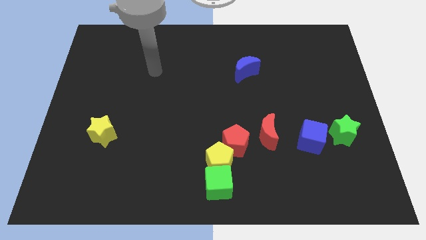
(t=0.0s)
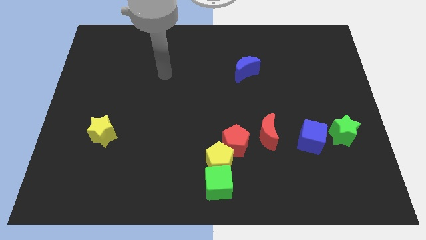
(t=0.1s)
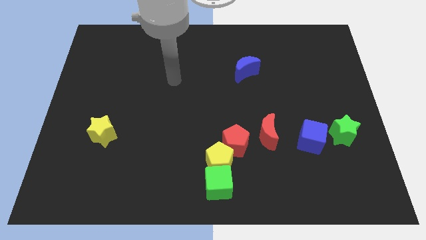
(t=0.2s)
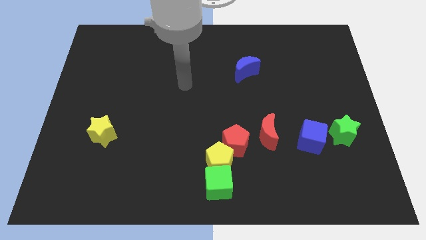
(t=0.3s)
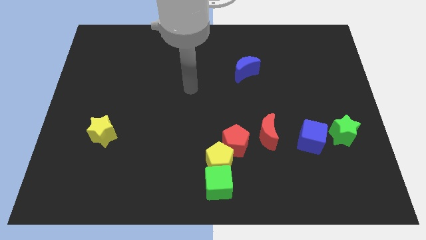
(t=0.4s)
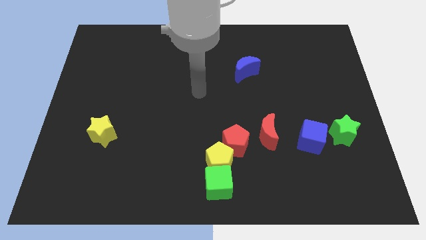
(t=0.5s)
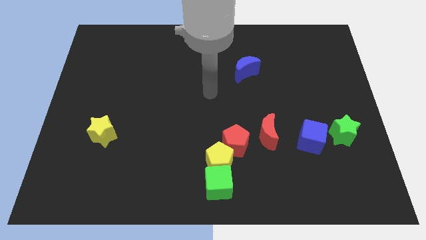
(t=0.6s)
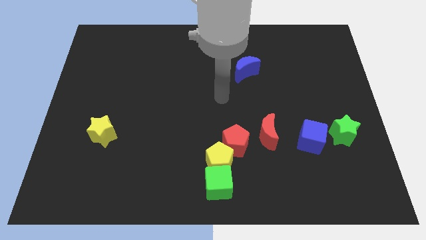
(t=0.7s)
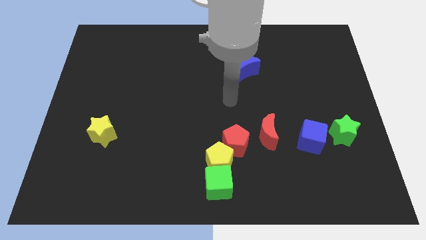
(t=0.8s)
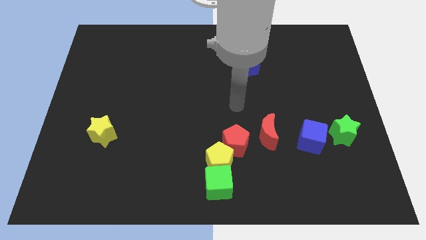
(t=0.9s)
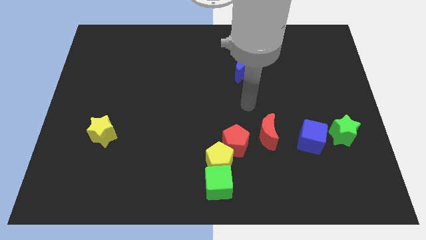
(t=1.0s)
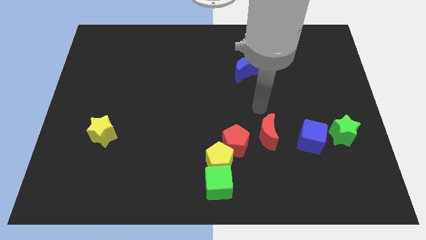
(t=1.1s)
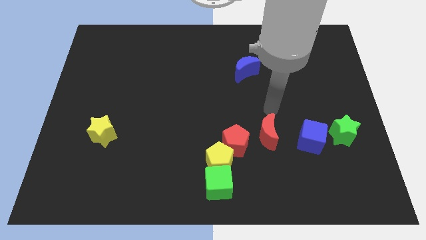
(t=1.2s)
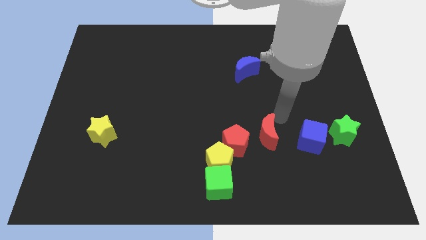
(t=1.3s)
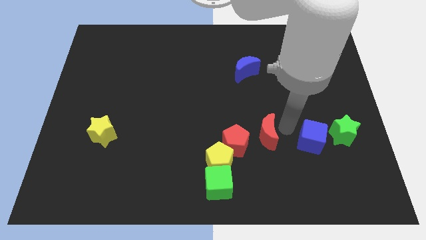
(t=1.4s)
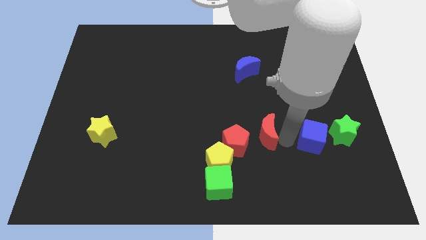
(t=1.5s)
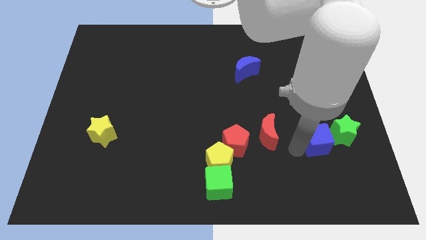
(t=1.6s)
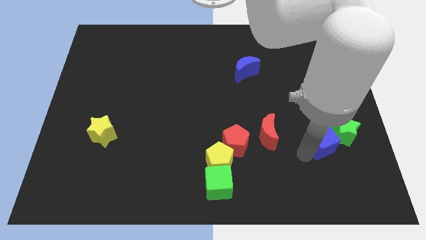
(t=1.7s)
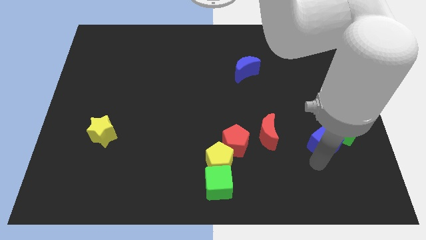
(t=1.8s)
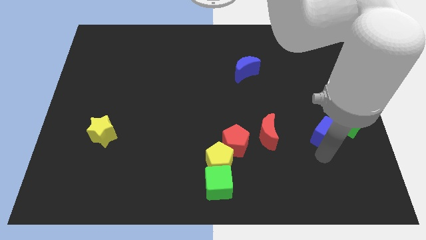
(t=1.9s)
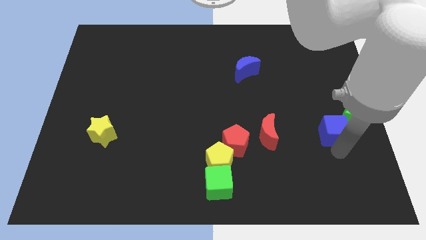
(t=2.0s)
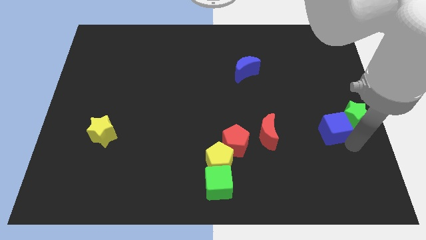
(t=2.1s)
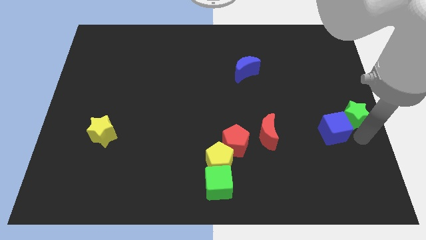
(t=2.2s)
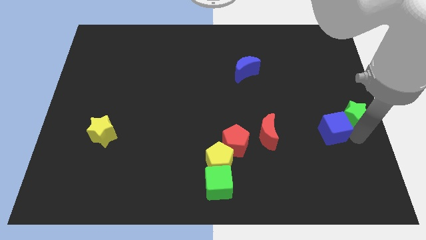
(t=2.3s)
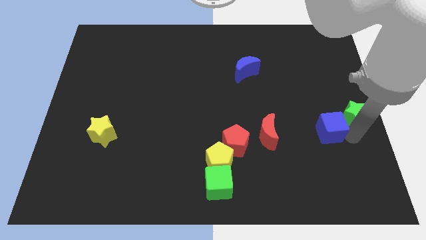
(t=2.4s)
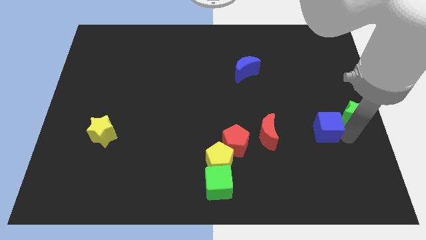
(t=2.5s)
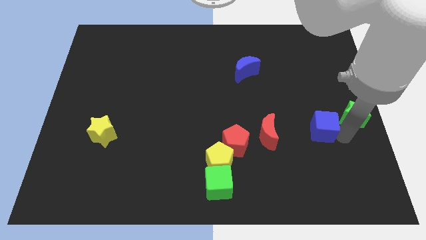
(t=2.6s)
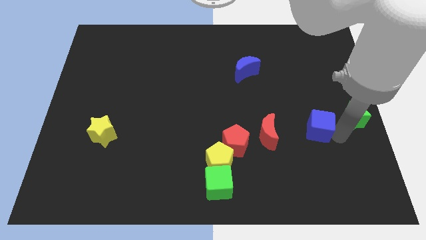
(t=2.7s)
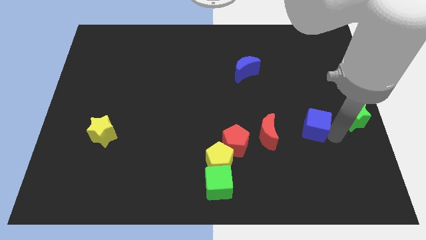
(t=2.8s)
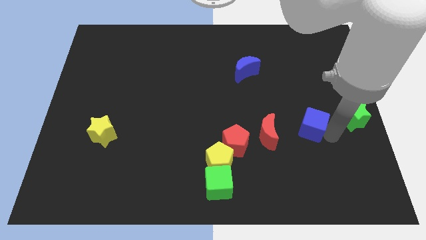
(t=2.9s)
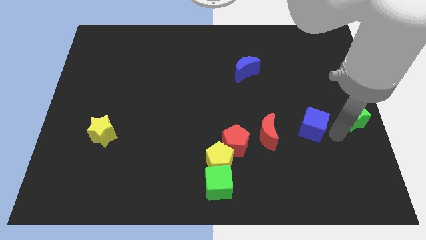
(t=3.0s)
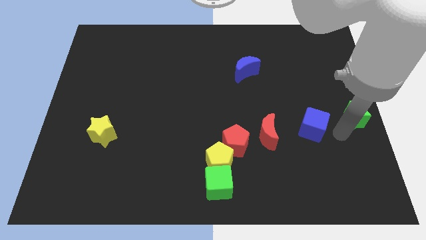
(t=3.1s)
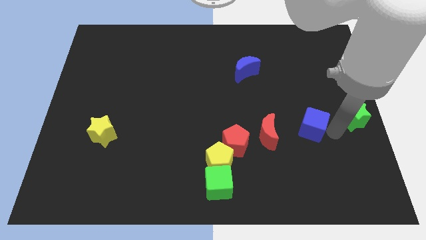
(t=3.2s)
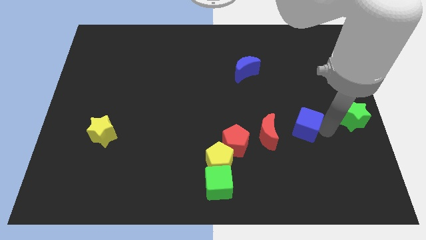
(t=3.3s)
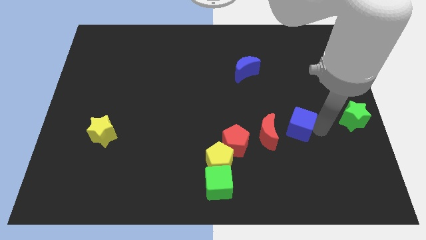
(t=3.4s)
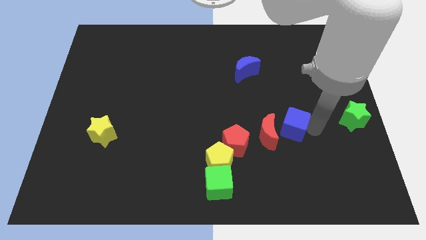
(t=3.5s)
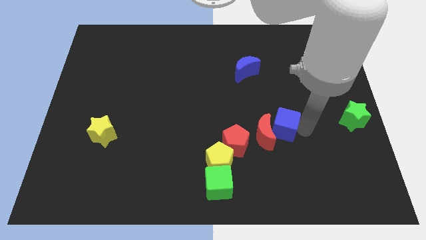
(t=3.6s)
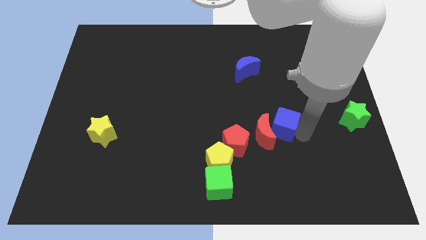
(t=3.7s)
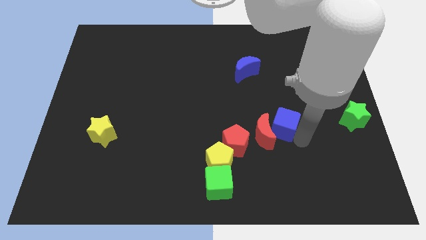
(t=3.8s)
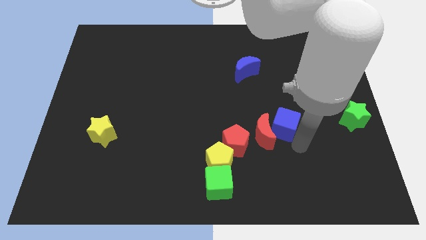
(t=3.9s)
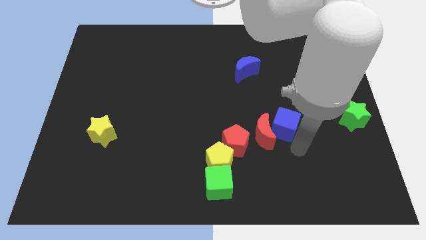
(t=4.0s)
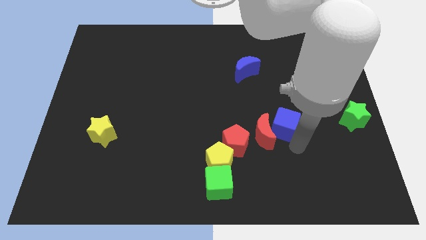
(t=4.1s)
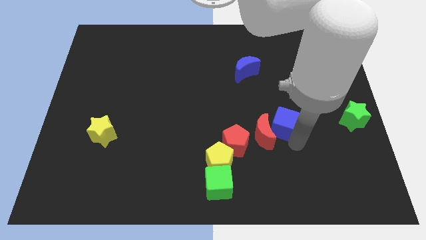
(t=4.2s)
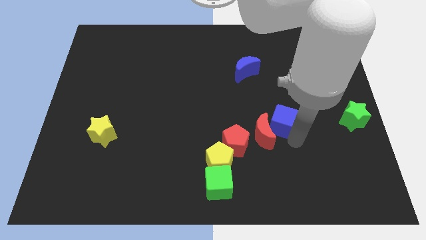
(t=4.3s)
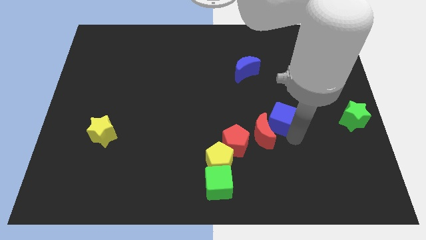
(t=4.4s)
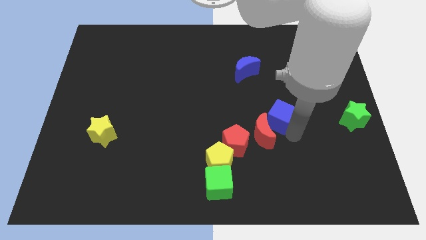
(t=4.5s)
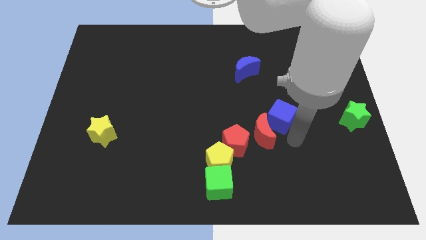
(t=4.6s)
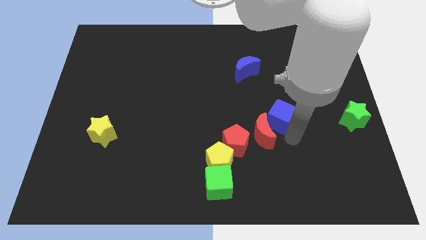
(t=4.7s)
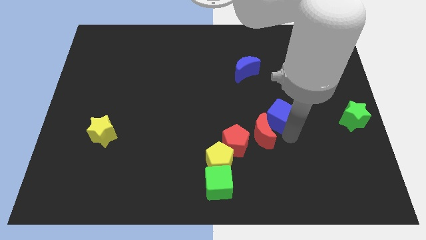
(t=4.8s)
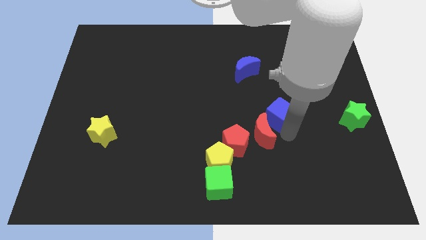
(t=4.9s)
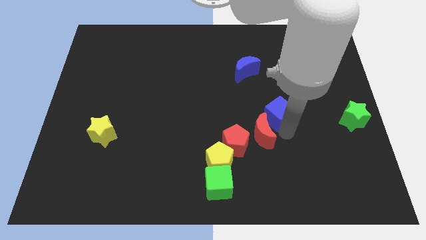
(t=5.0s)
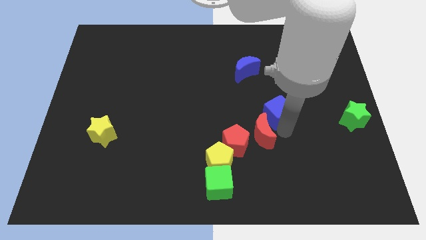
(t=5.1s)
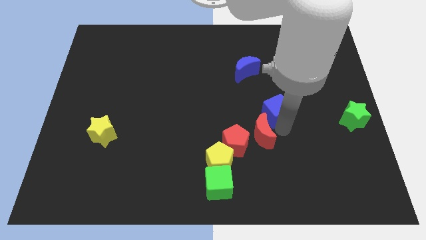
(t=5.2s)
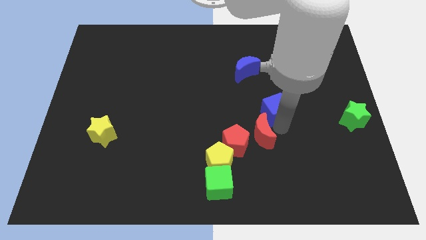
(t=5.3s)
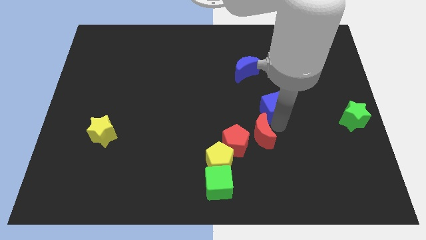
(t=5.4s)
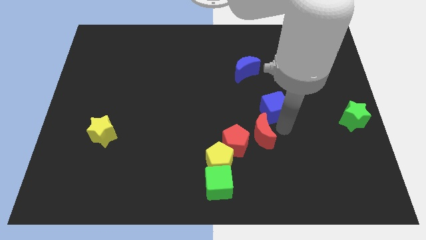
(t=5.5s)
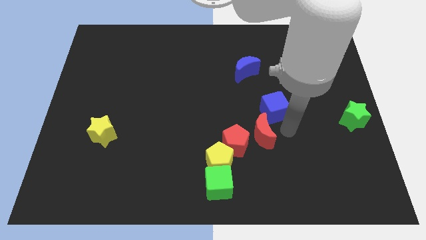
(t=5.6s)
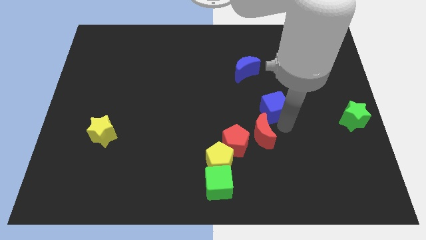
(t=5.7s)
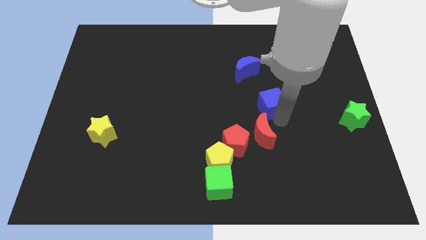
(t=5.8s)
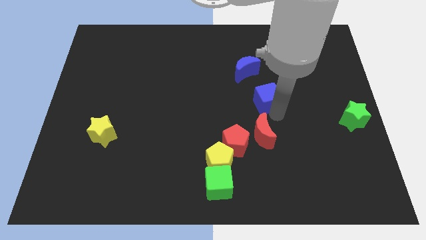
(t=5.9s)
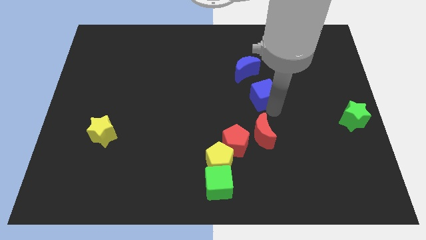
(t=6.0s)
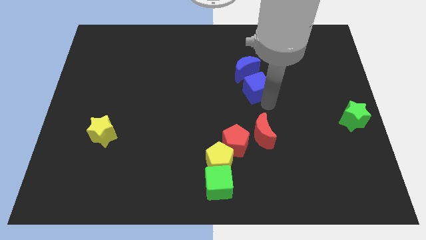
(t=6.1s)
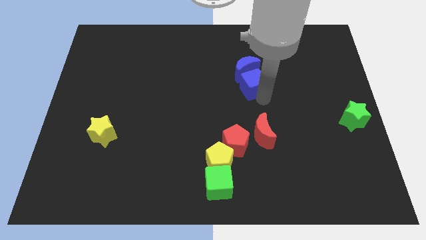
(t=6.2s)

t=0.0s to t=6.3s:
slide the blue cube next to the blue moon

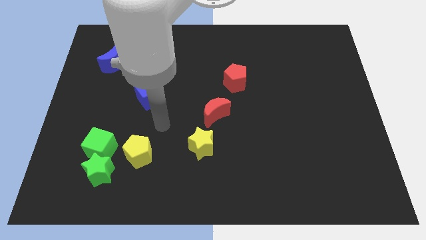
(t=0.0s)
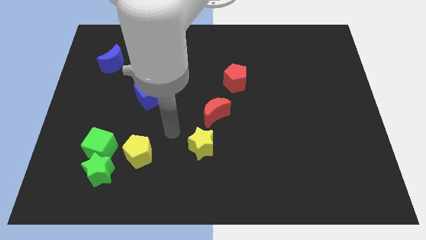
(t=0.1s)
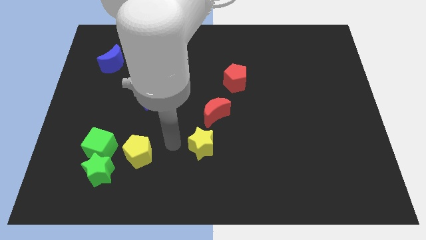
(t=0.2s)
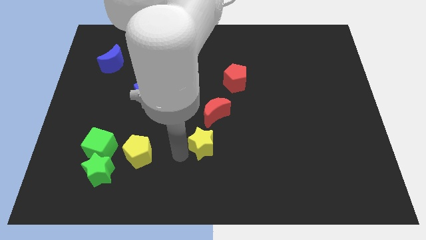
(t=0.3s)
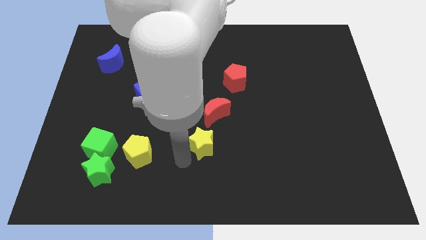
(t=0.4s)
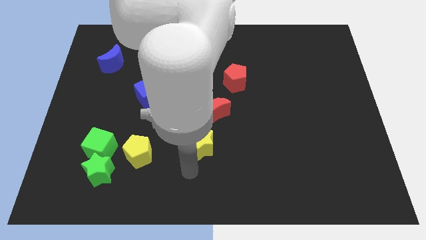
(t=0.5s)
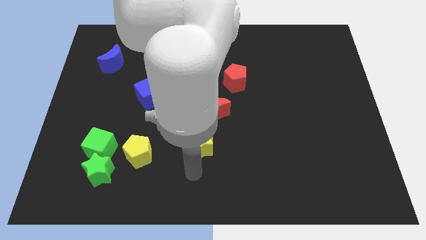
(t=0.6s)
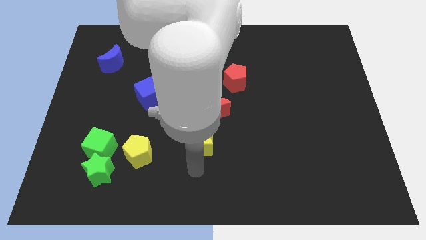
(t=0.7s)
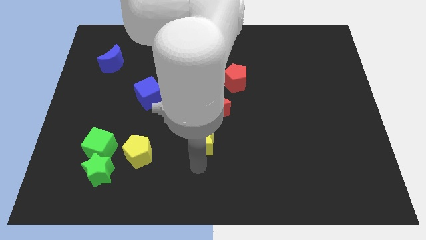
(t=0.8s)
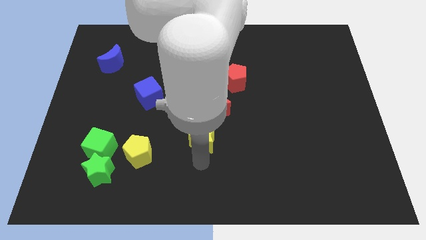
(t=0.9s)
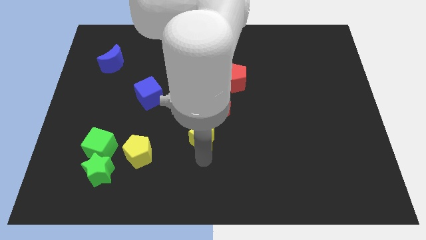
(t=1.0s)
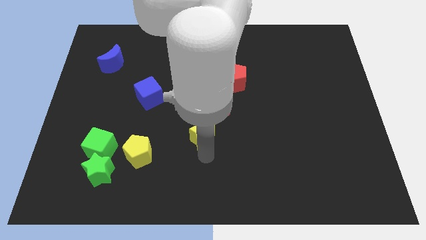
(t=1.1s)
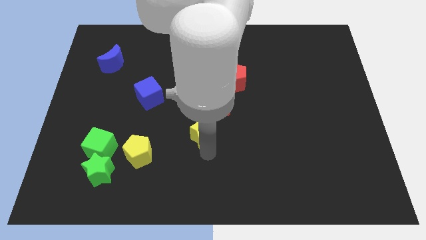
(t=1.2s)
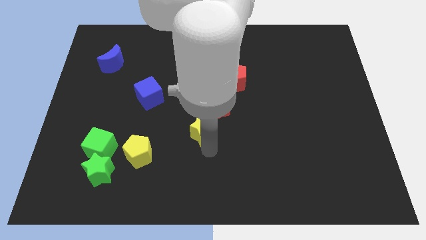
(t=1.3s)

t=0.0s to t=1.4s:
put the yellow star towards the red moon

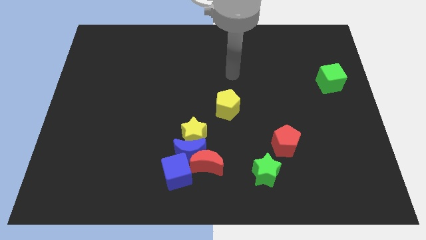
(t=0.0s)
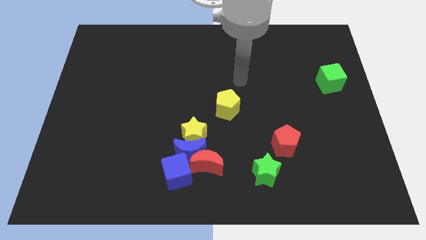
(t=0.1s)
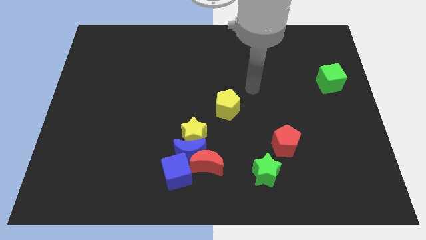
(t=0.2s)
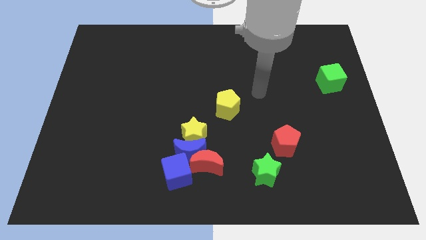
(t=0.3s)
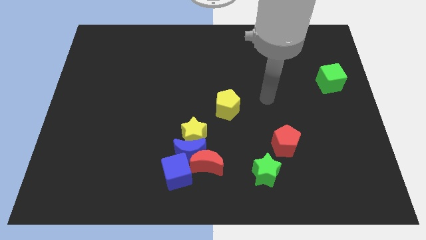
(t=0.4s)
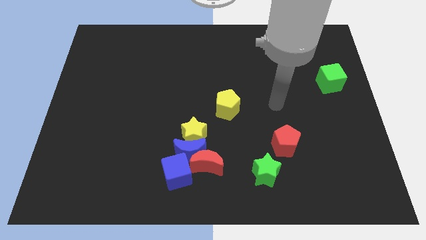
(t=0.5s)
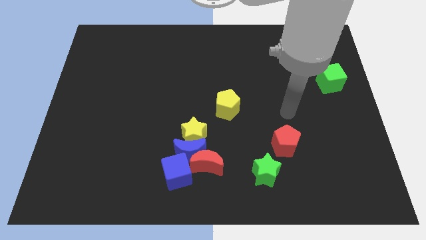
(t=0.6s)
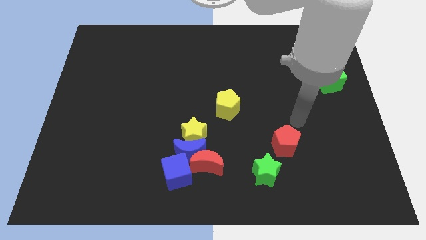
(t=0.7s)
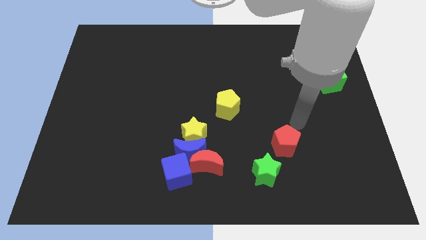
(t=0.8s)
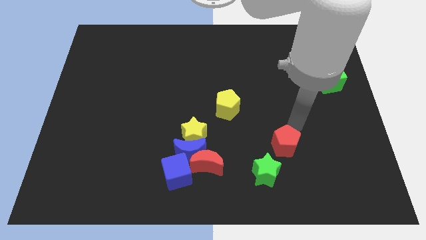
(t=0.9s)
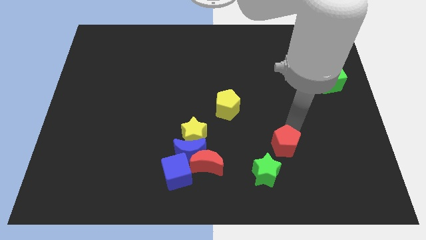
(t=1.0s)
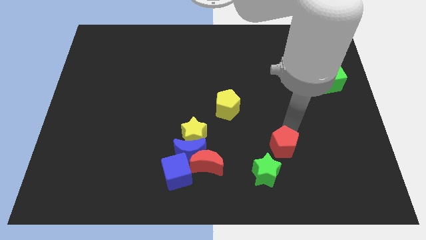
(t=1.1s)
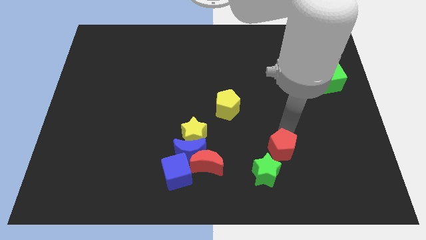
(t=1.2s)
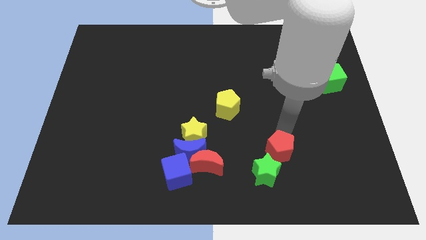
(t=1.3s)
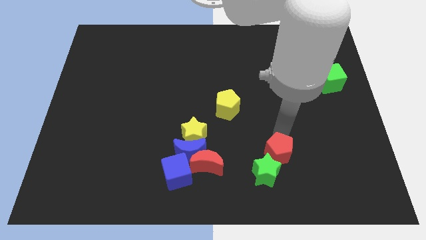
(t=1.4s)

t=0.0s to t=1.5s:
slide the red pentagon to the green star
